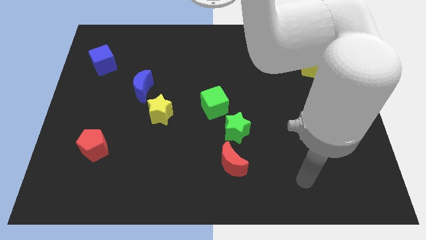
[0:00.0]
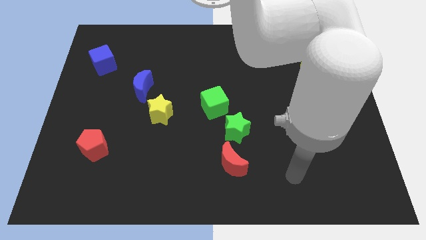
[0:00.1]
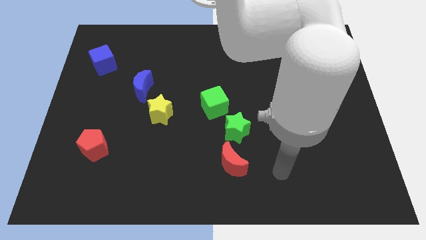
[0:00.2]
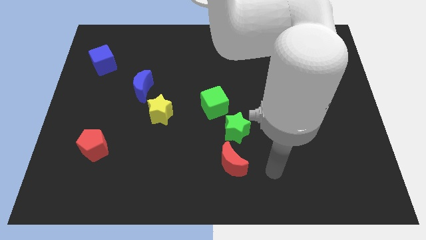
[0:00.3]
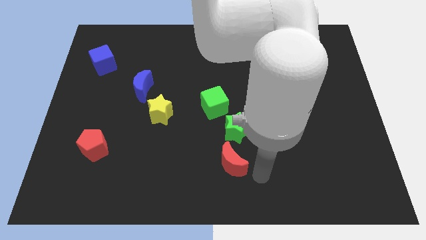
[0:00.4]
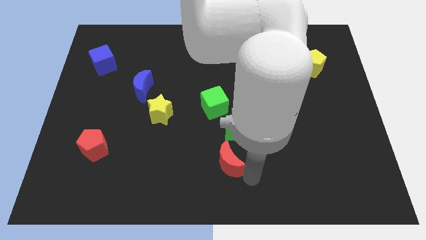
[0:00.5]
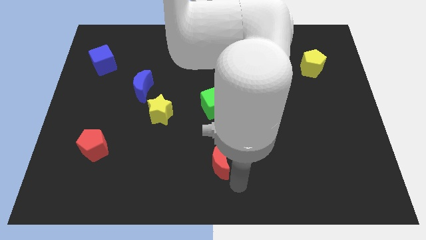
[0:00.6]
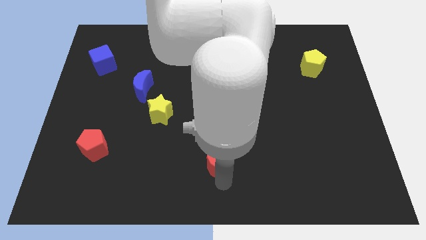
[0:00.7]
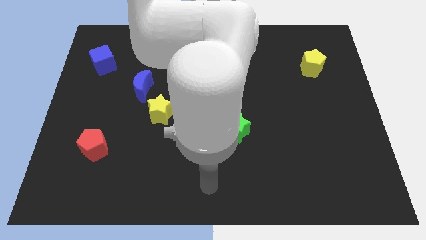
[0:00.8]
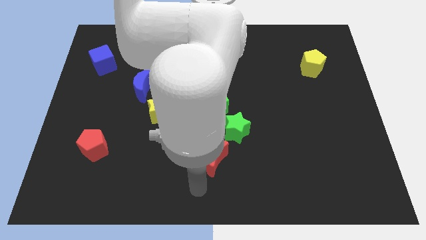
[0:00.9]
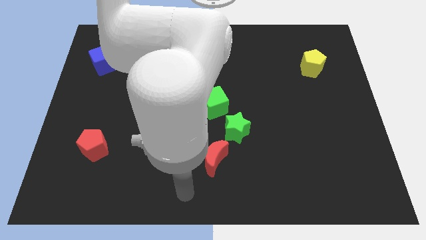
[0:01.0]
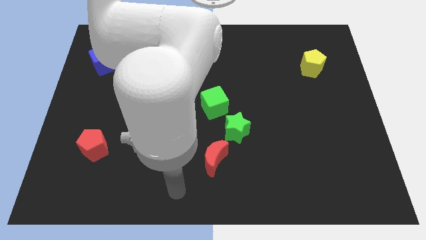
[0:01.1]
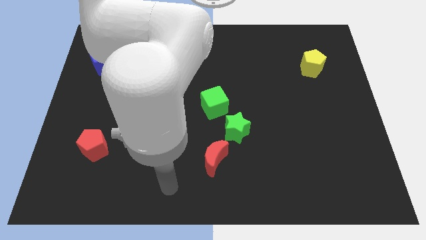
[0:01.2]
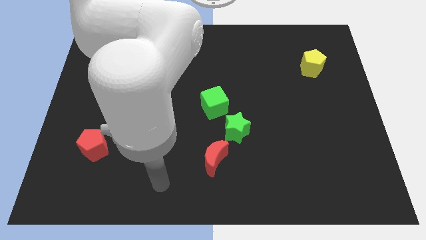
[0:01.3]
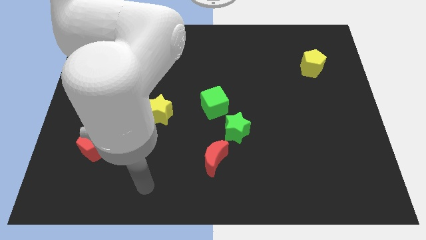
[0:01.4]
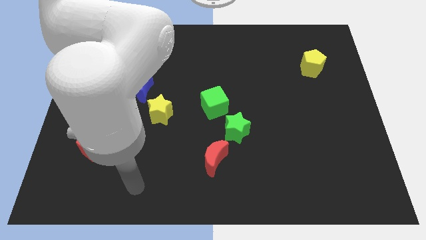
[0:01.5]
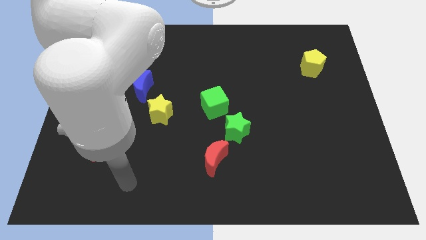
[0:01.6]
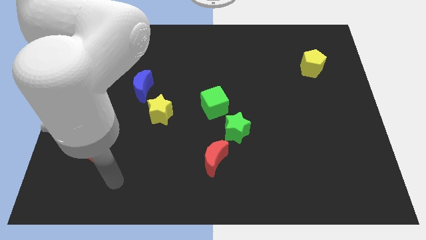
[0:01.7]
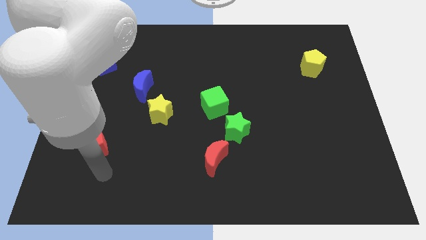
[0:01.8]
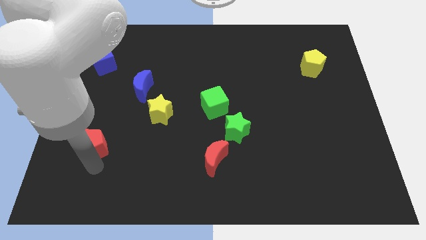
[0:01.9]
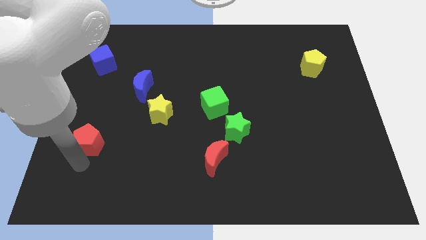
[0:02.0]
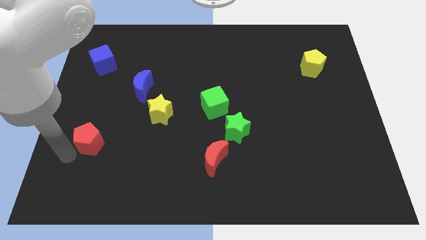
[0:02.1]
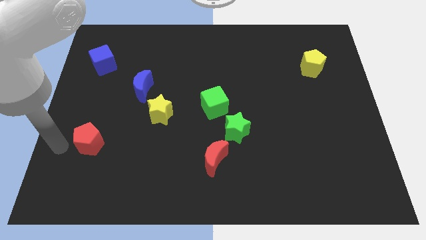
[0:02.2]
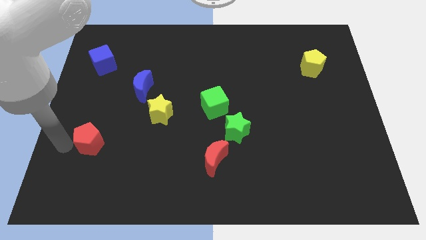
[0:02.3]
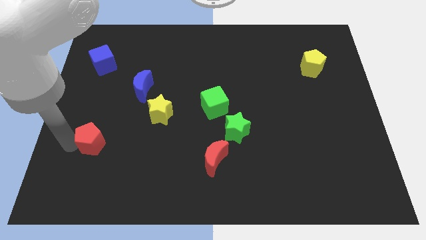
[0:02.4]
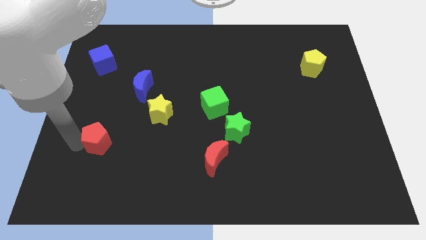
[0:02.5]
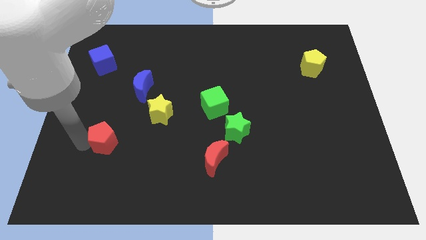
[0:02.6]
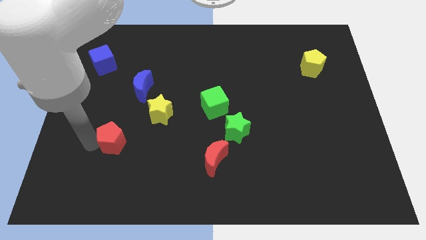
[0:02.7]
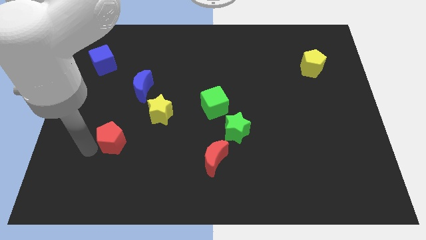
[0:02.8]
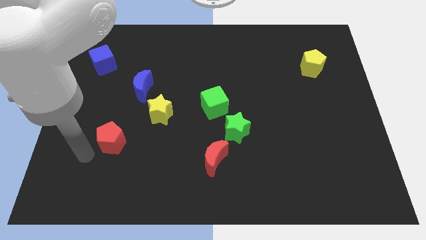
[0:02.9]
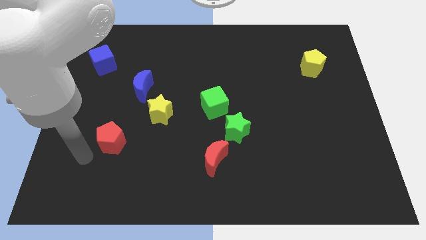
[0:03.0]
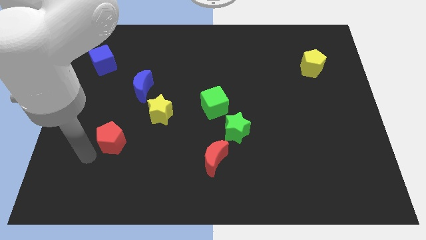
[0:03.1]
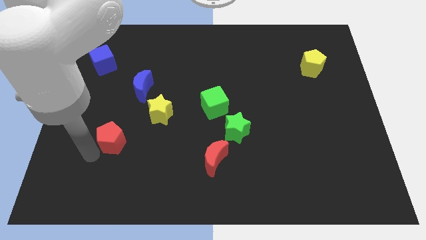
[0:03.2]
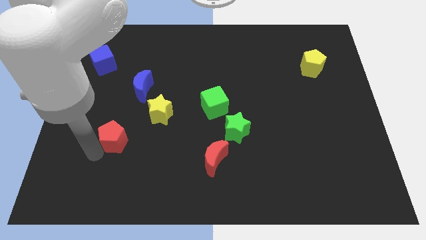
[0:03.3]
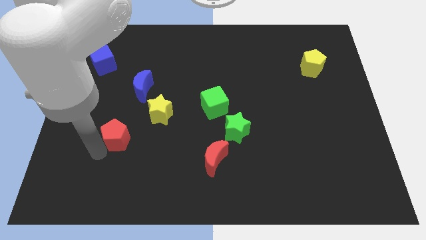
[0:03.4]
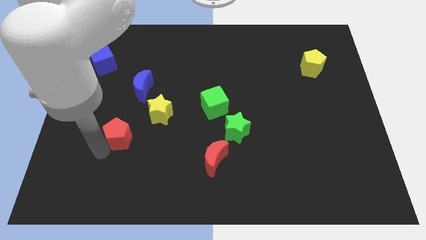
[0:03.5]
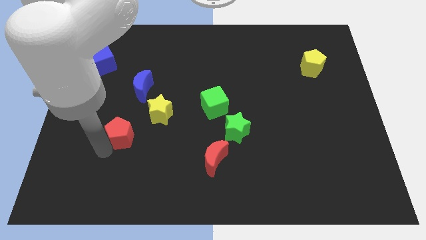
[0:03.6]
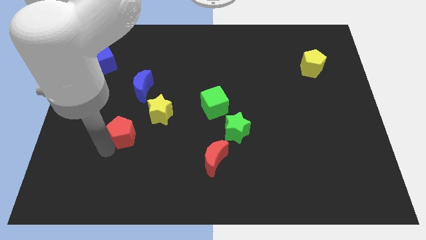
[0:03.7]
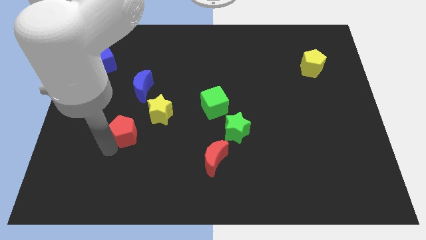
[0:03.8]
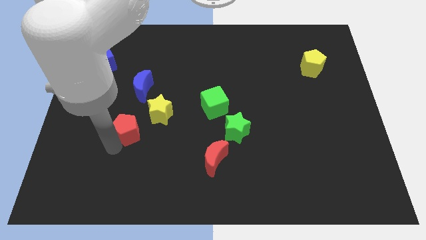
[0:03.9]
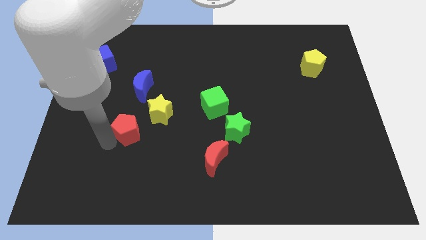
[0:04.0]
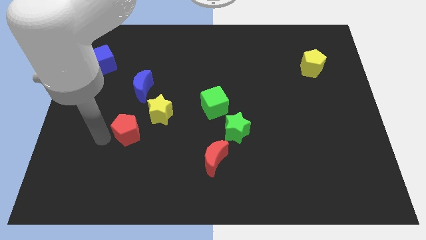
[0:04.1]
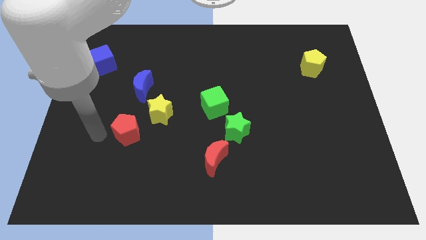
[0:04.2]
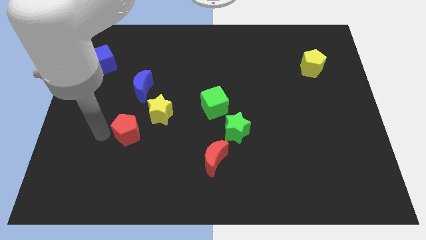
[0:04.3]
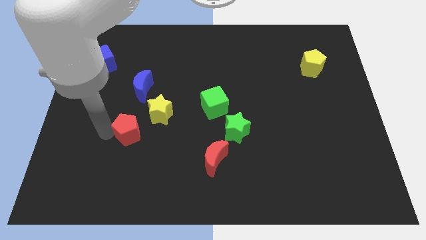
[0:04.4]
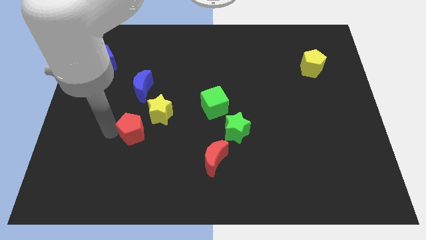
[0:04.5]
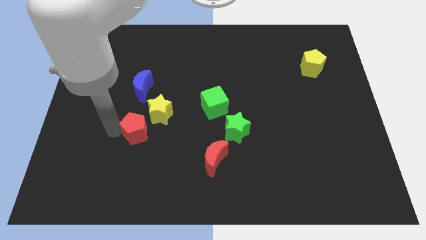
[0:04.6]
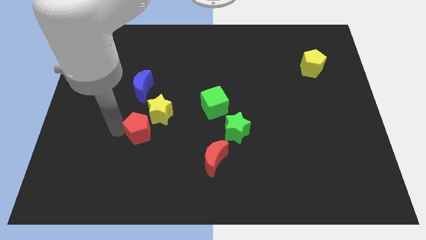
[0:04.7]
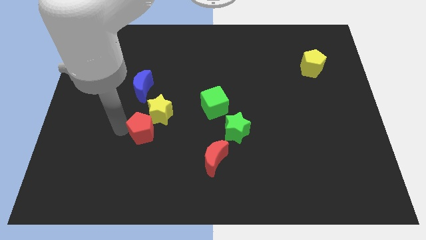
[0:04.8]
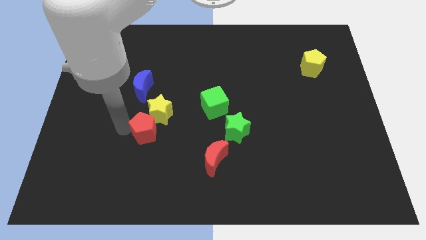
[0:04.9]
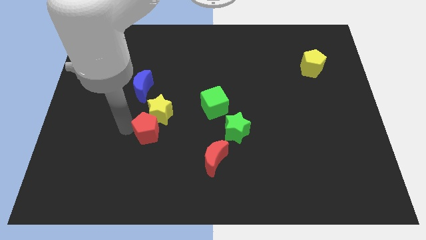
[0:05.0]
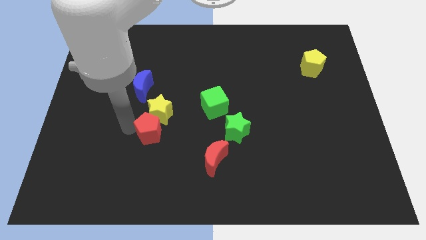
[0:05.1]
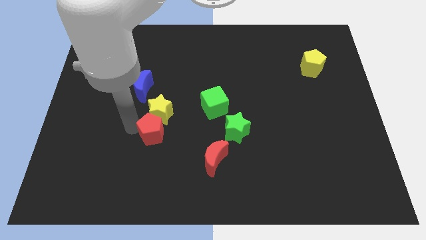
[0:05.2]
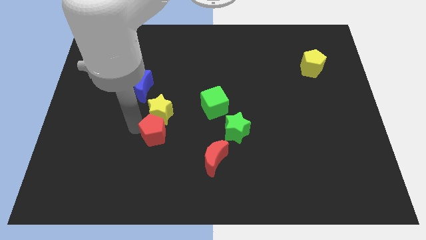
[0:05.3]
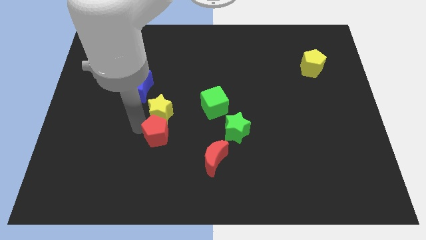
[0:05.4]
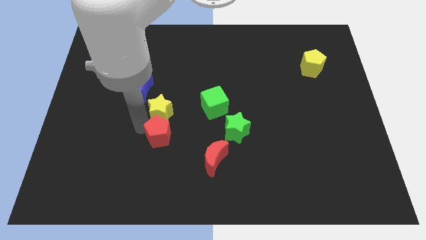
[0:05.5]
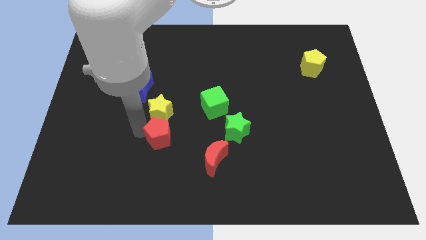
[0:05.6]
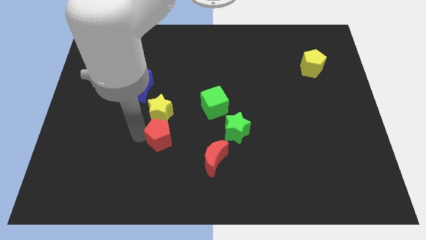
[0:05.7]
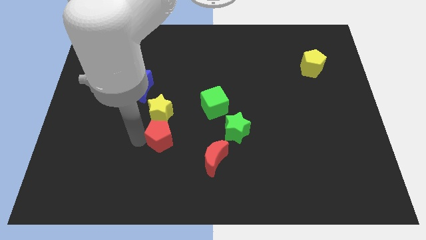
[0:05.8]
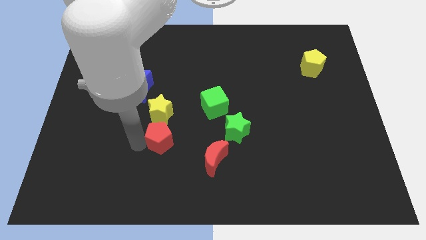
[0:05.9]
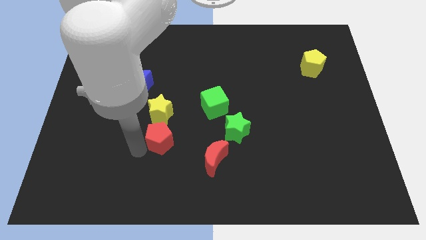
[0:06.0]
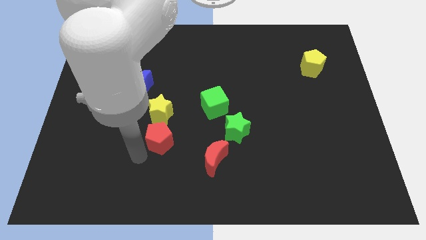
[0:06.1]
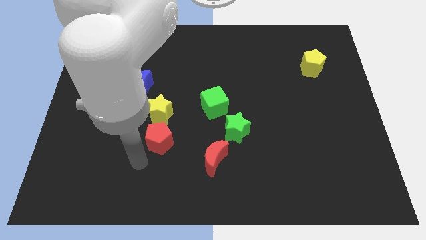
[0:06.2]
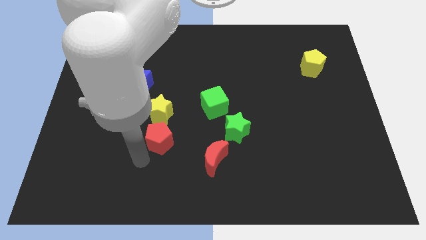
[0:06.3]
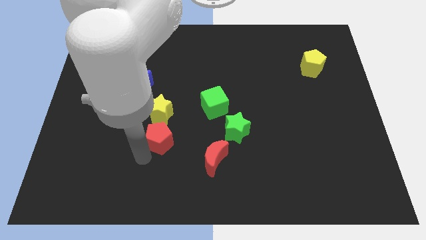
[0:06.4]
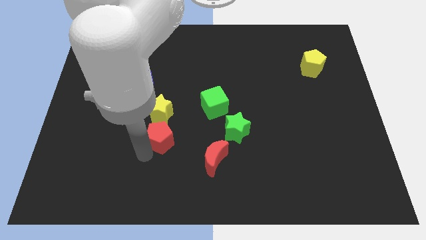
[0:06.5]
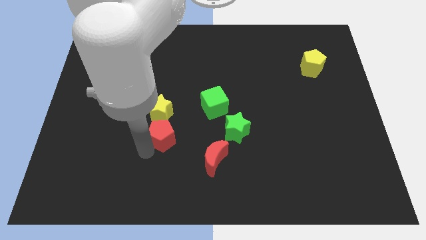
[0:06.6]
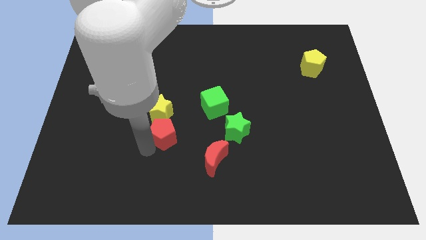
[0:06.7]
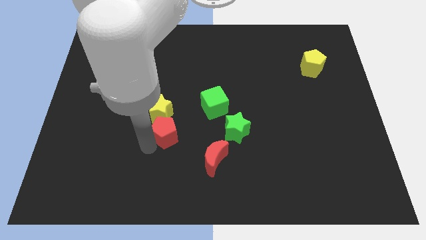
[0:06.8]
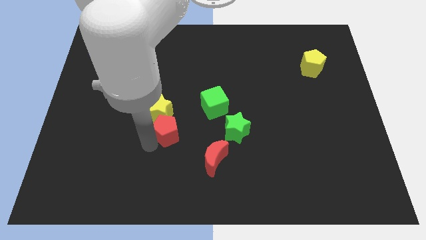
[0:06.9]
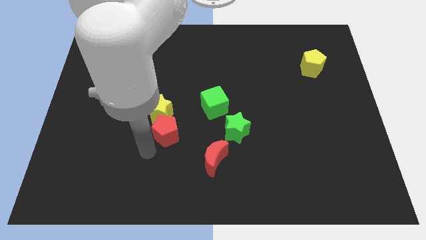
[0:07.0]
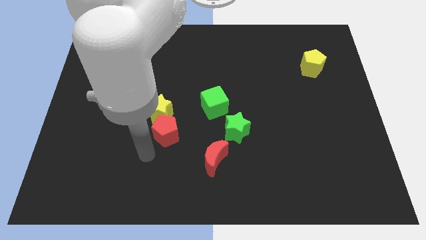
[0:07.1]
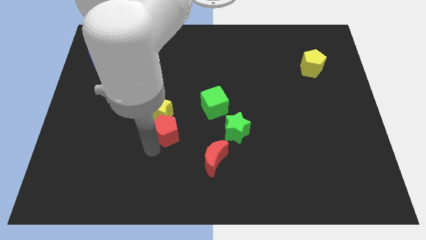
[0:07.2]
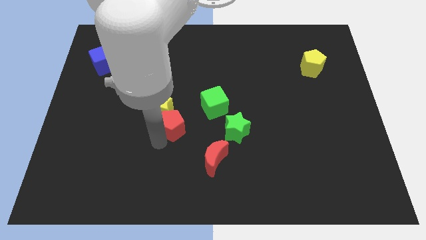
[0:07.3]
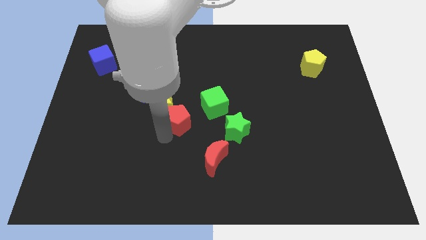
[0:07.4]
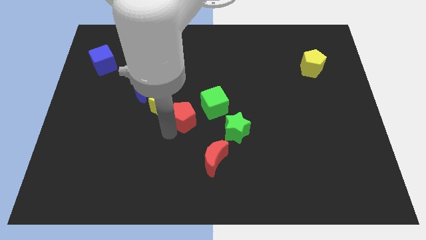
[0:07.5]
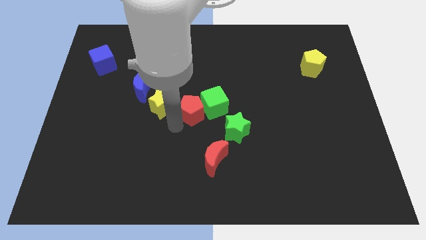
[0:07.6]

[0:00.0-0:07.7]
move the red pentagon to the green cube
